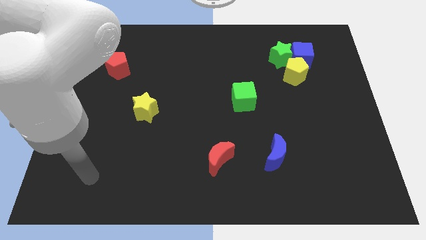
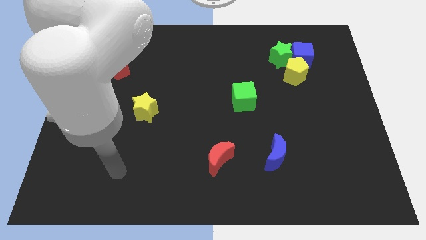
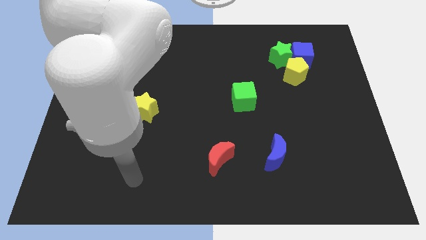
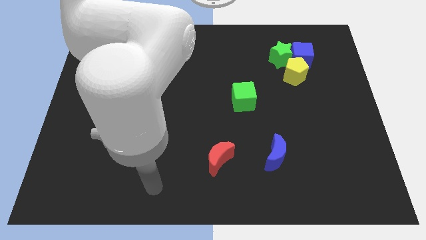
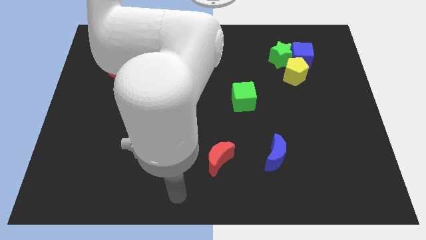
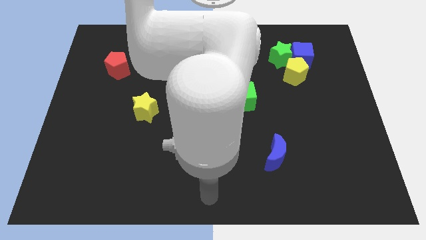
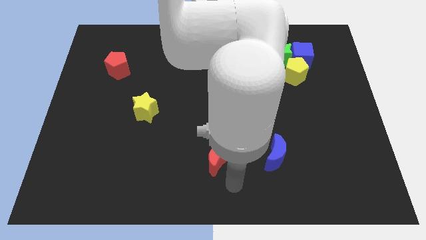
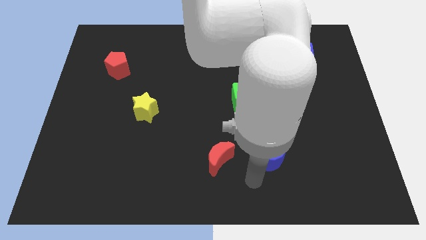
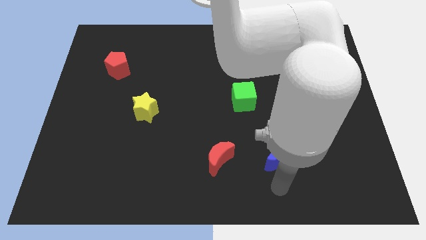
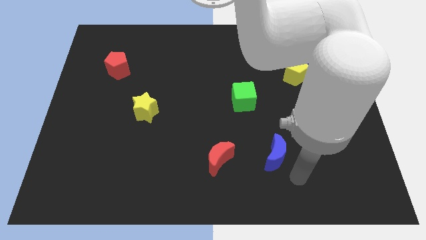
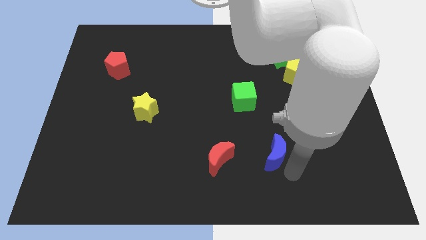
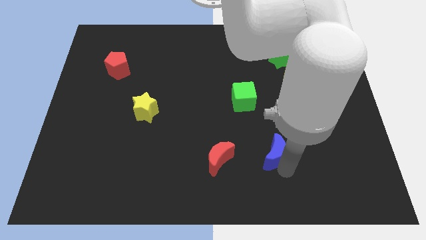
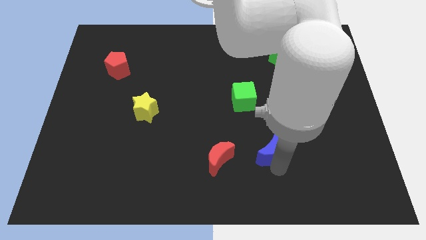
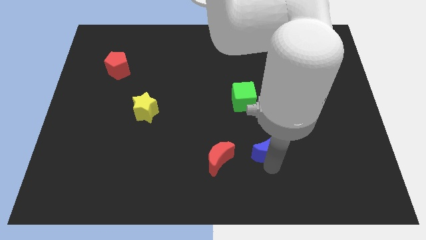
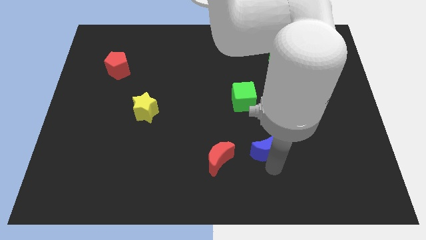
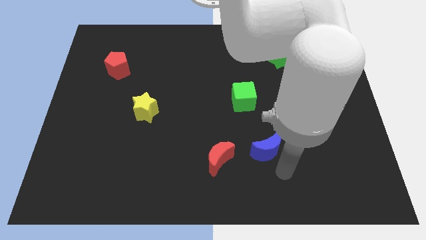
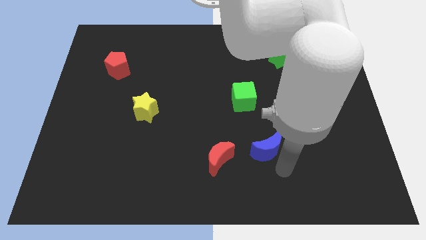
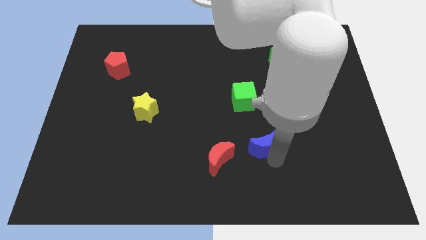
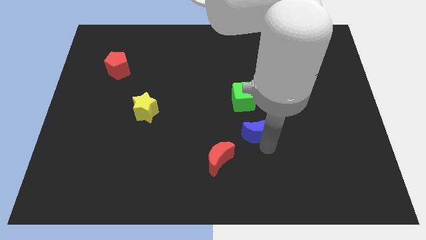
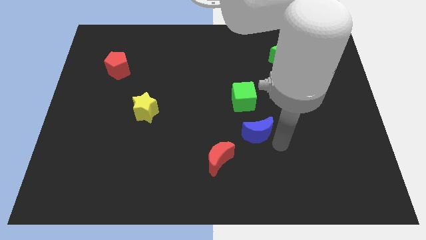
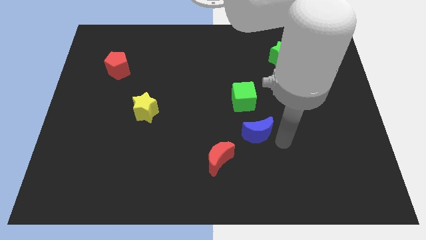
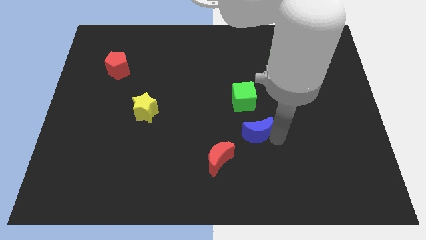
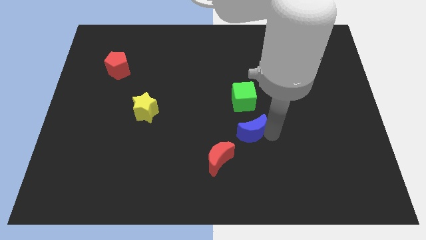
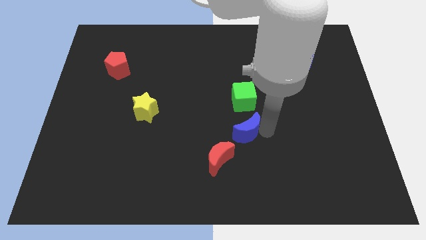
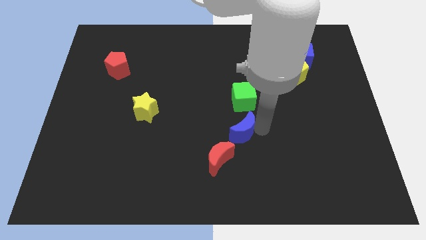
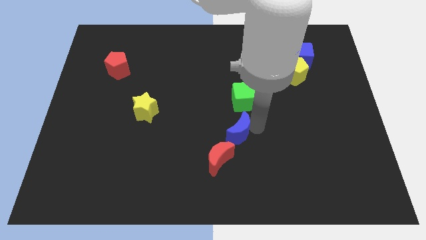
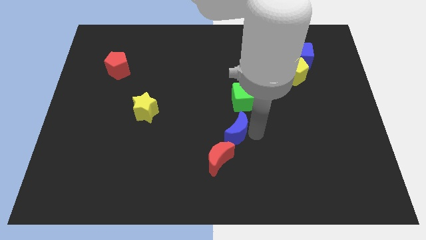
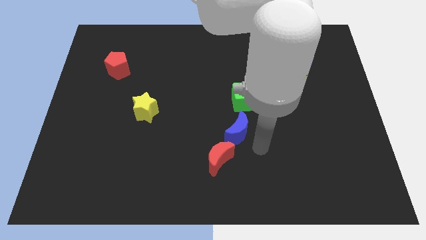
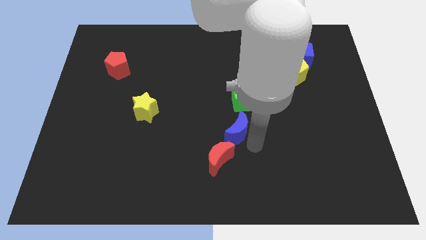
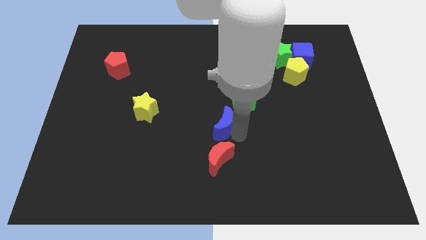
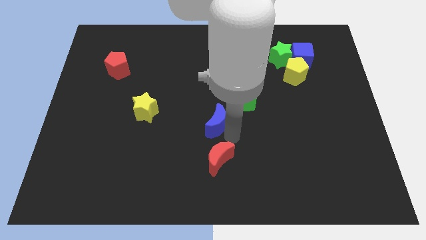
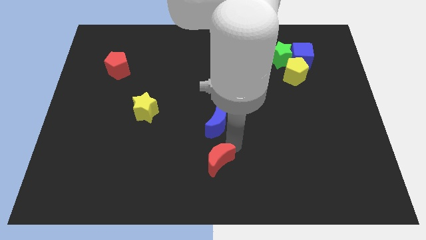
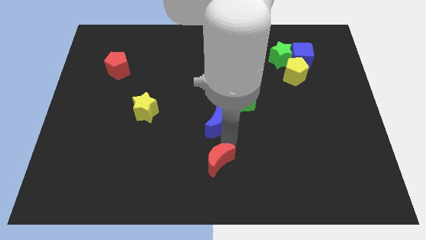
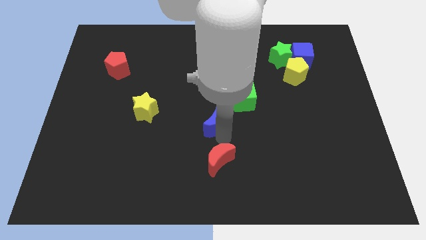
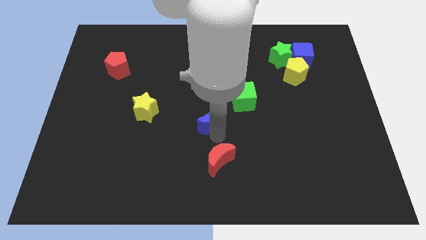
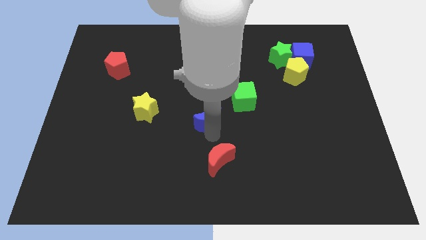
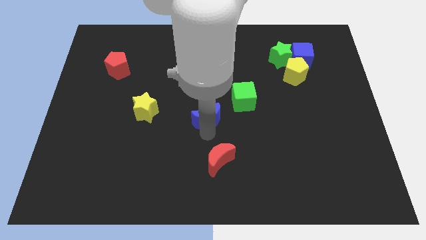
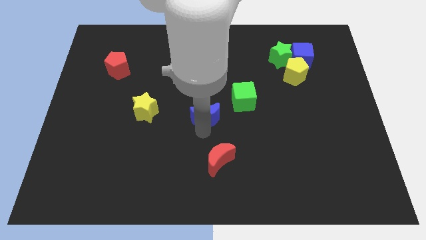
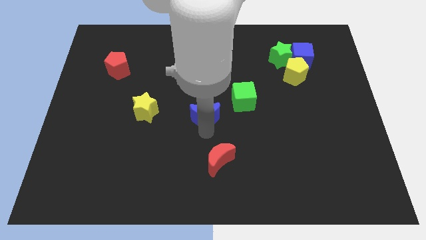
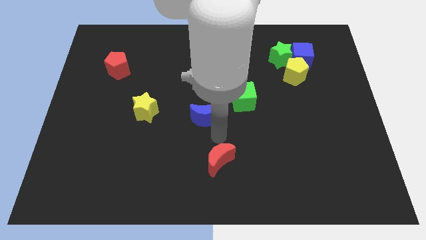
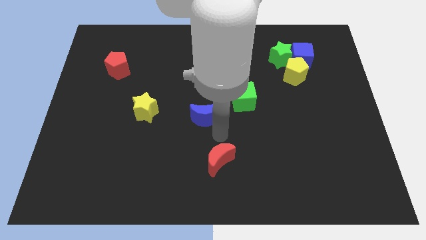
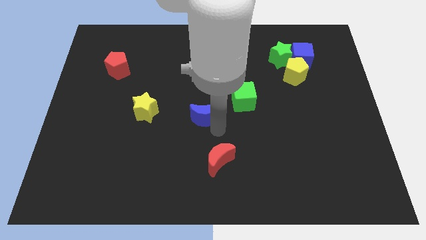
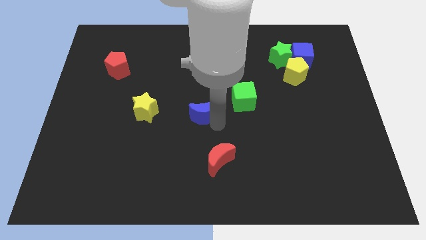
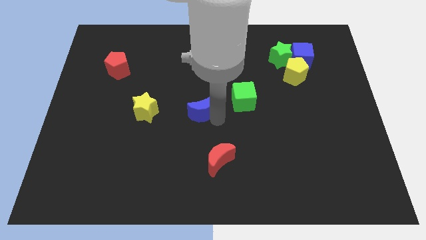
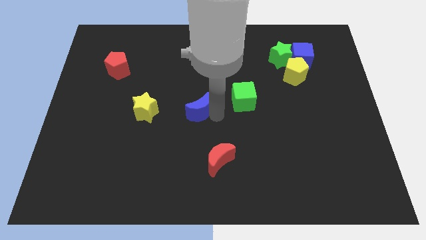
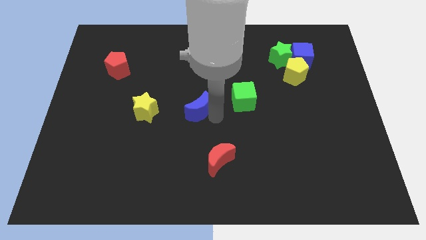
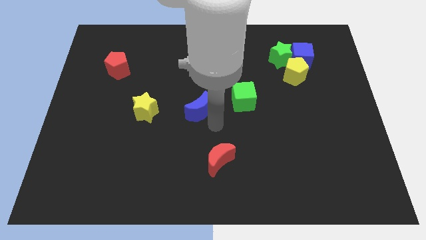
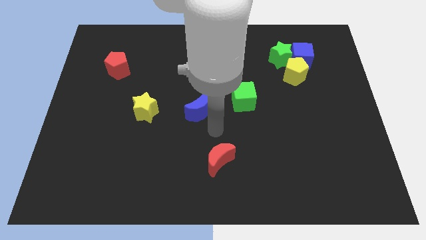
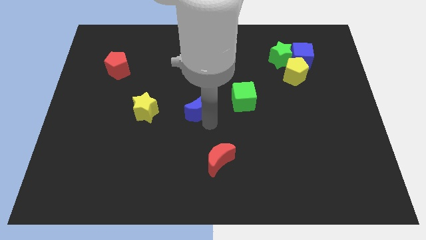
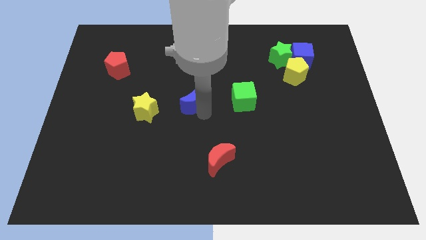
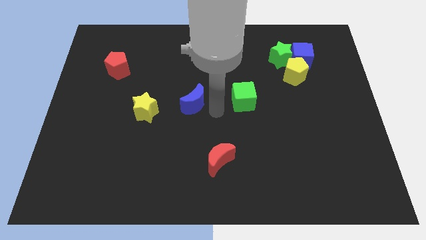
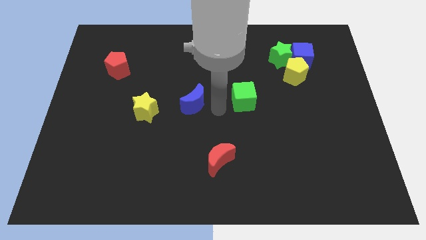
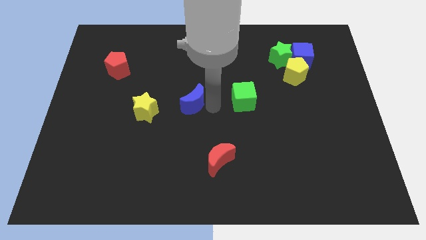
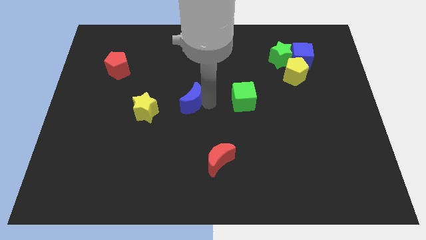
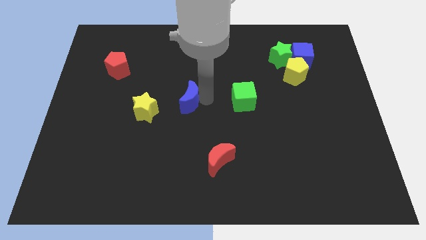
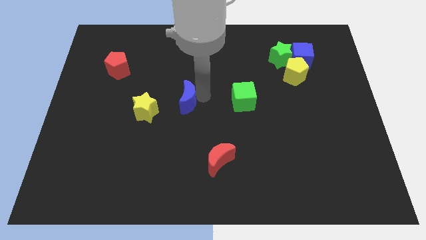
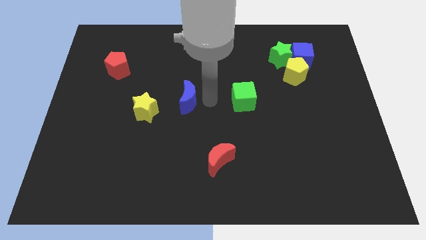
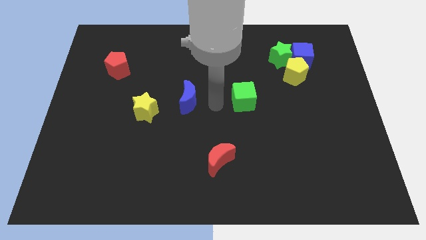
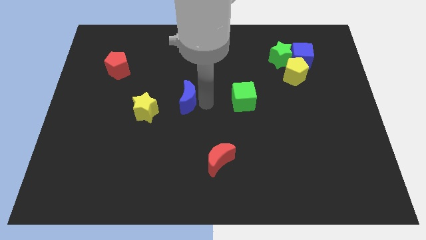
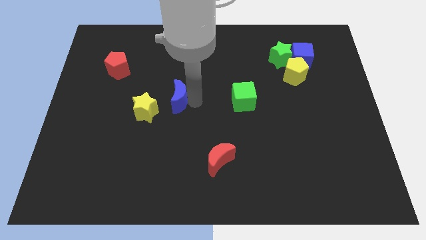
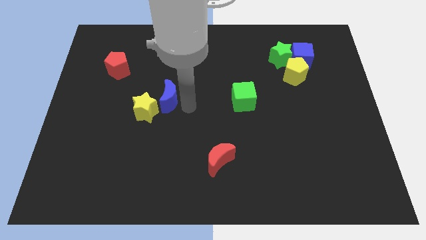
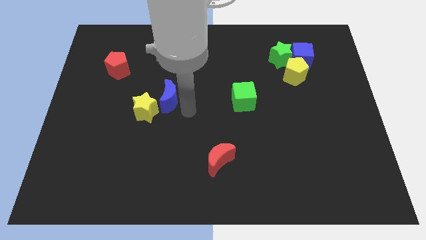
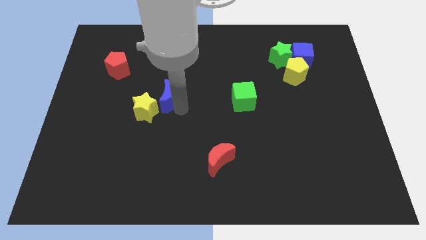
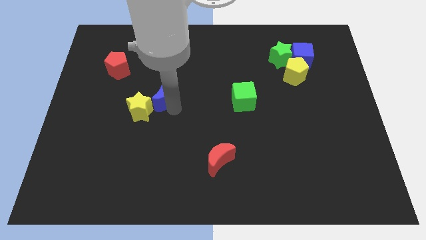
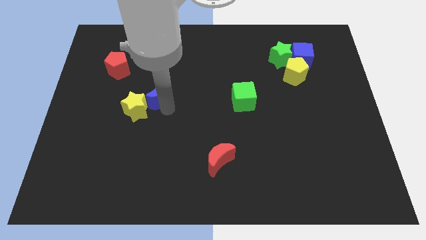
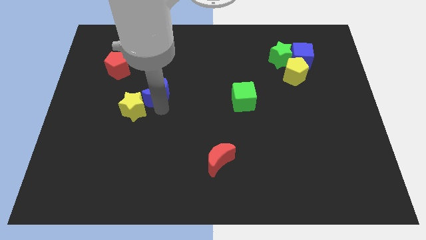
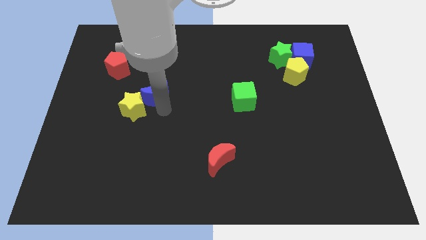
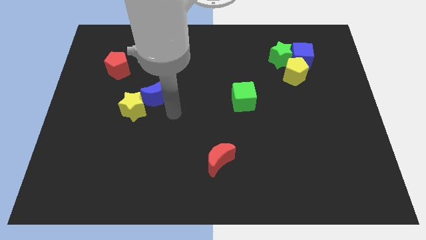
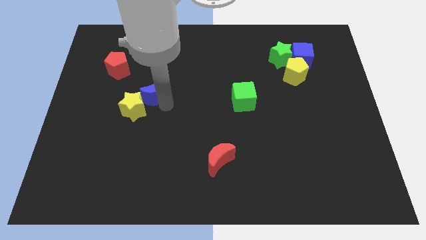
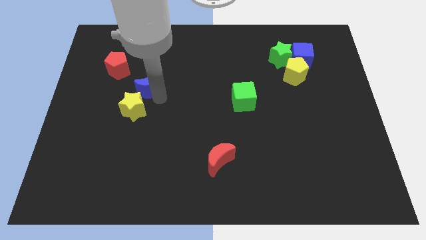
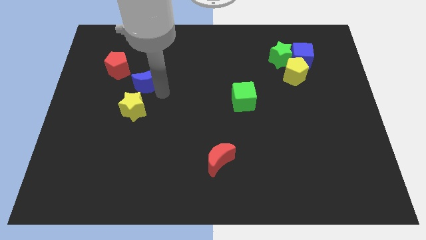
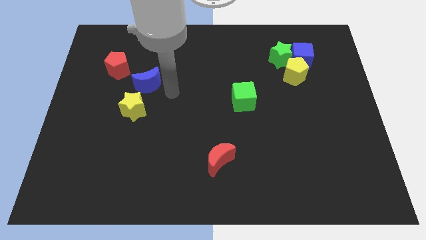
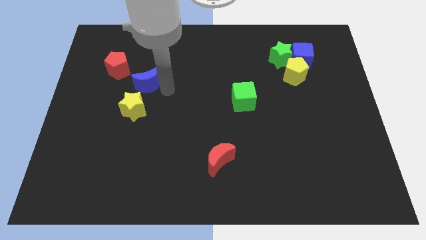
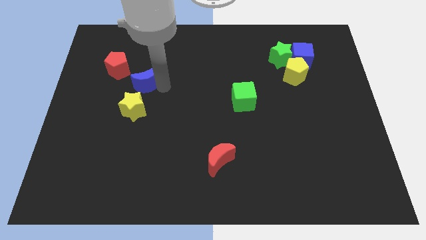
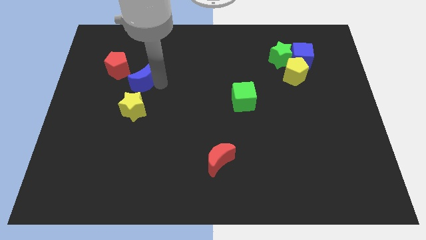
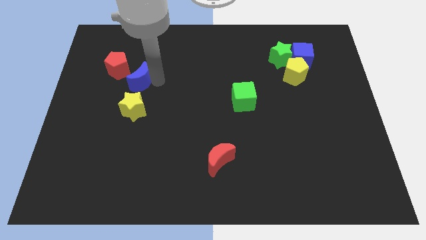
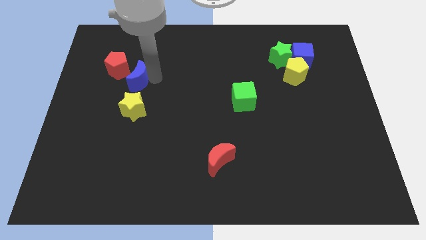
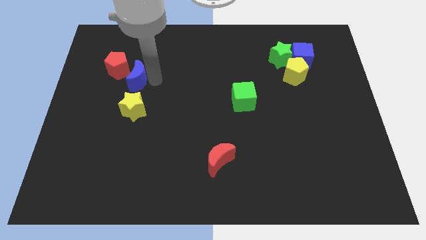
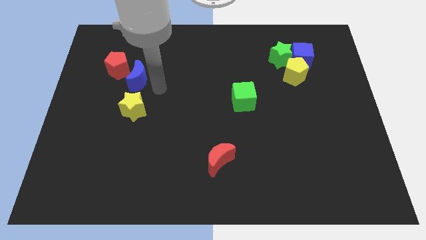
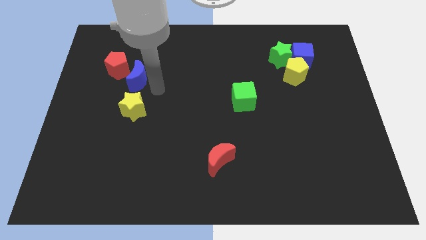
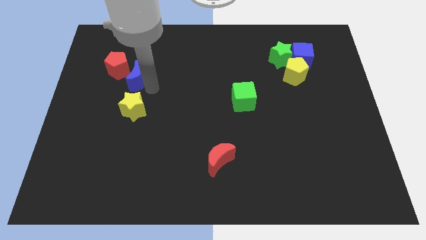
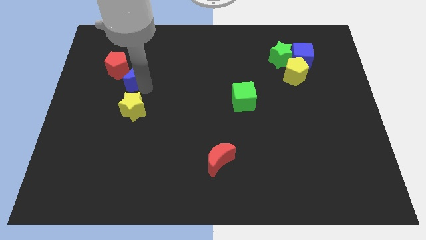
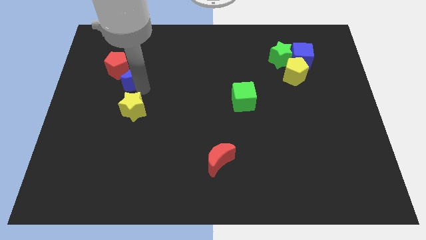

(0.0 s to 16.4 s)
slide the blue moon to the red pentagon
